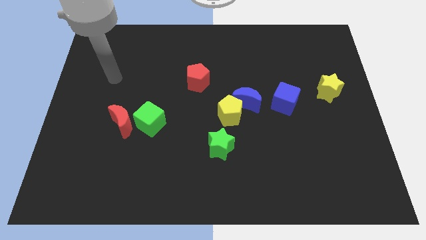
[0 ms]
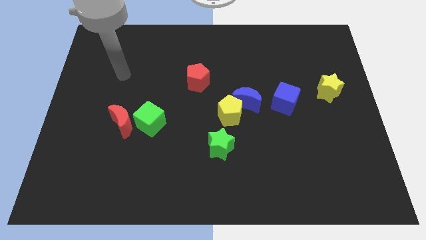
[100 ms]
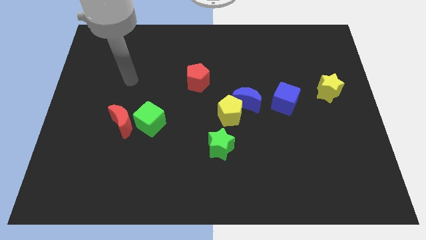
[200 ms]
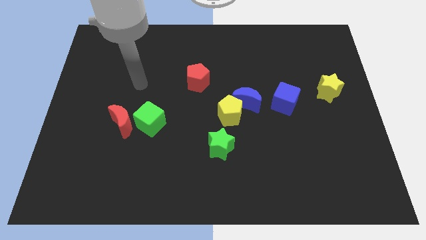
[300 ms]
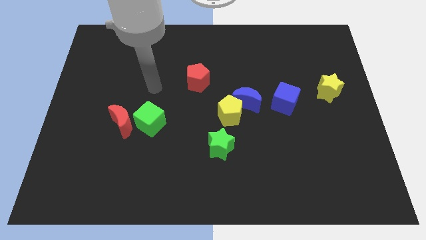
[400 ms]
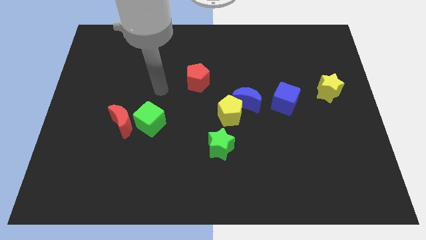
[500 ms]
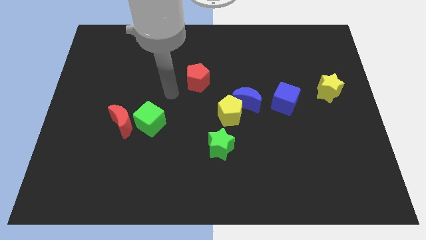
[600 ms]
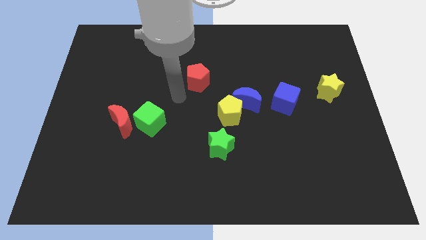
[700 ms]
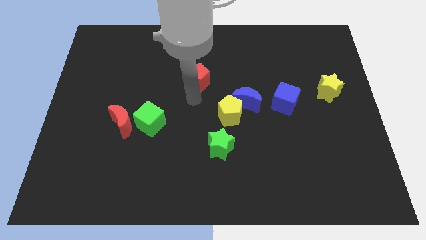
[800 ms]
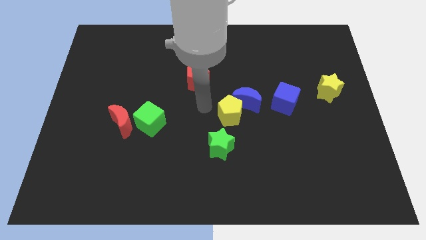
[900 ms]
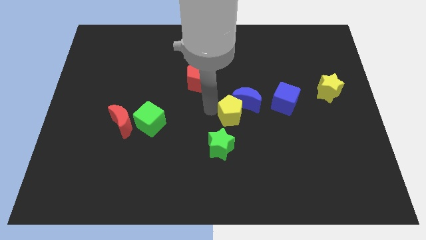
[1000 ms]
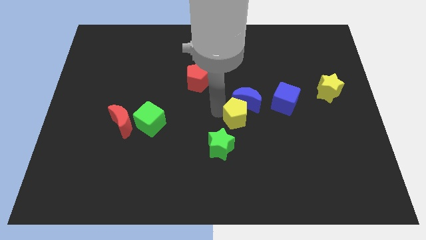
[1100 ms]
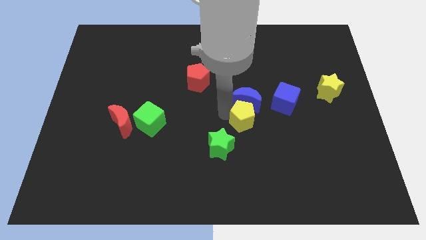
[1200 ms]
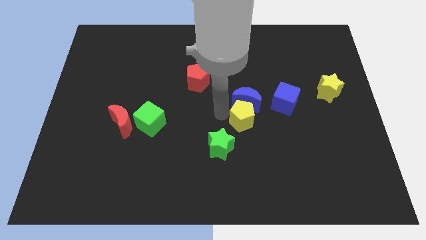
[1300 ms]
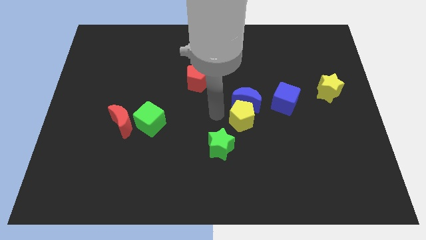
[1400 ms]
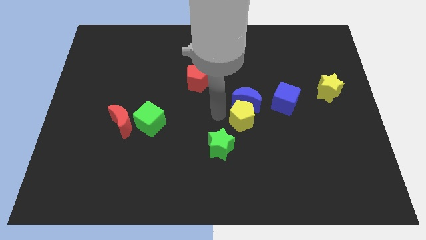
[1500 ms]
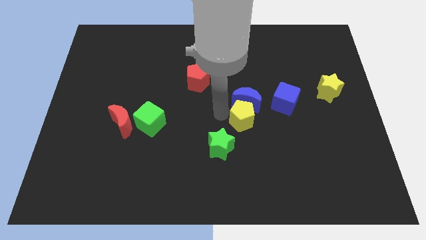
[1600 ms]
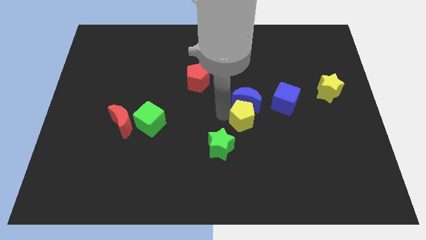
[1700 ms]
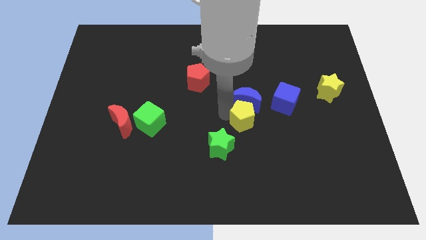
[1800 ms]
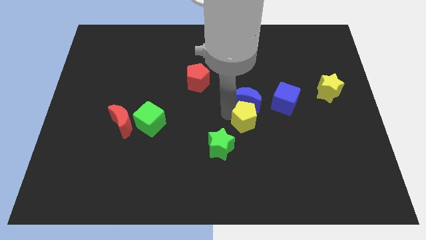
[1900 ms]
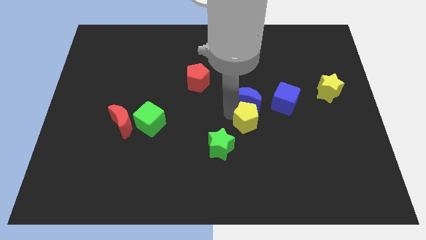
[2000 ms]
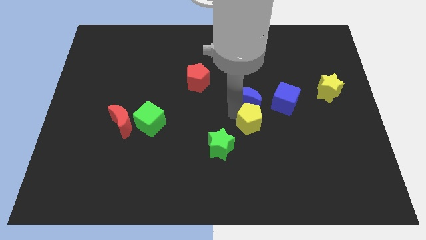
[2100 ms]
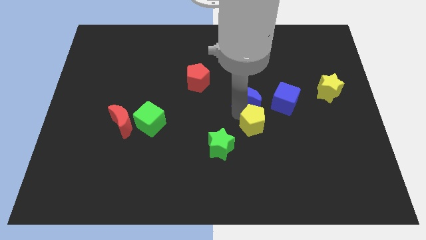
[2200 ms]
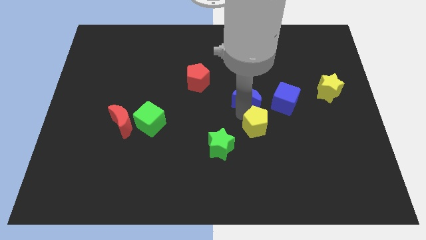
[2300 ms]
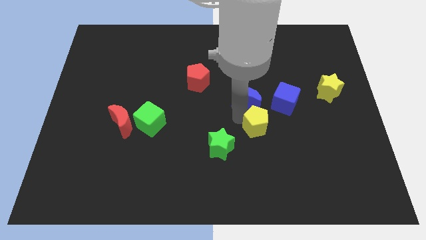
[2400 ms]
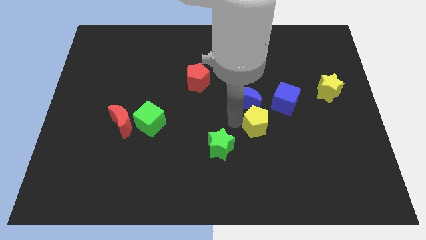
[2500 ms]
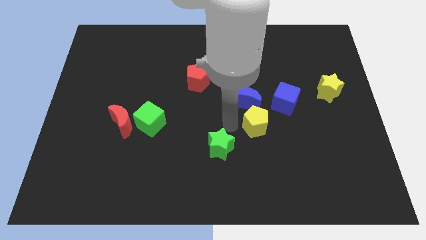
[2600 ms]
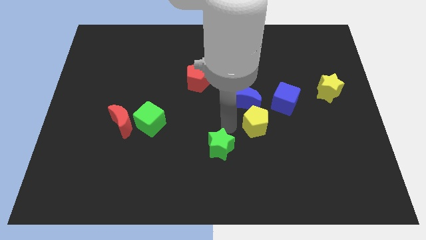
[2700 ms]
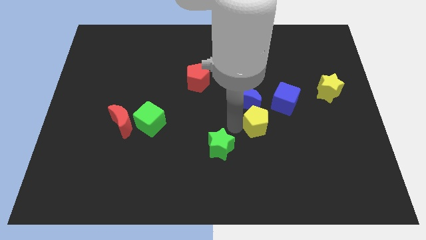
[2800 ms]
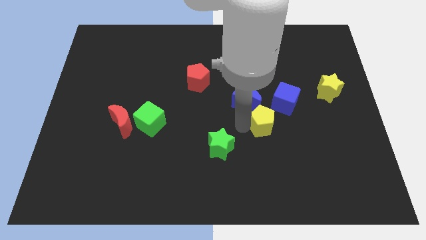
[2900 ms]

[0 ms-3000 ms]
push the yellow pentagon a bit right

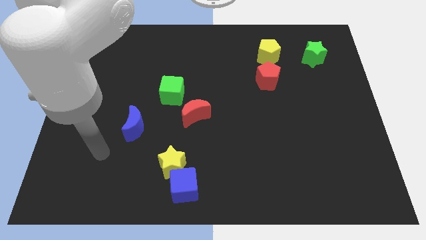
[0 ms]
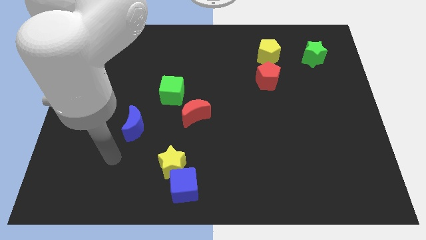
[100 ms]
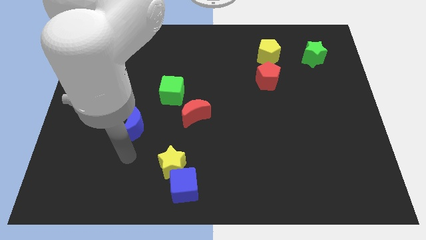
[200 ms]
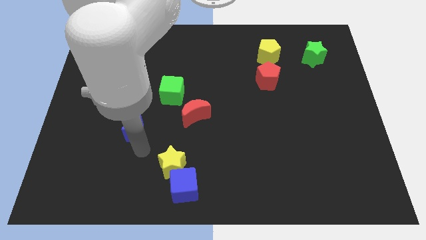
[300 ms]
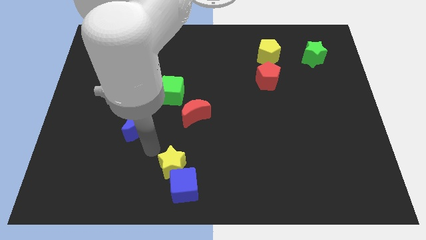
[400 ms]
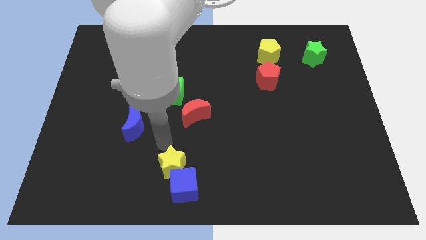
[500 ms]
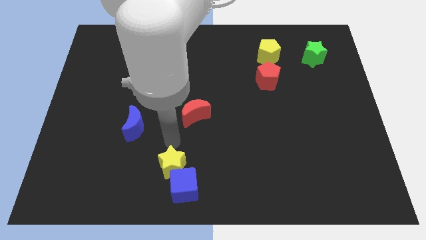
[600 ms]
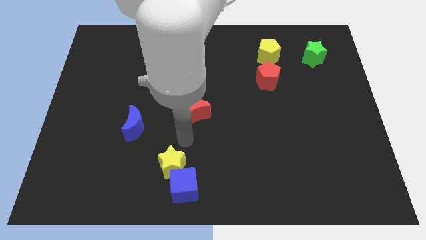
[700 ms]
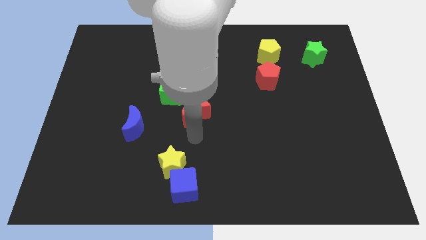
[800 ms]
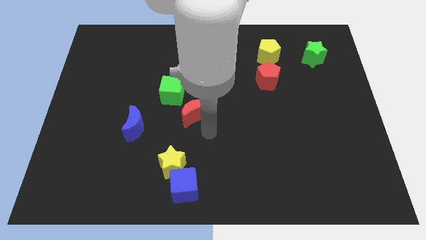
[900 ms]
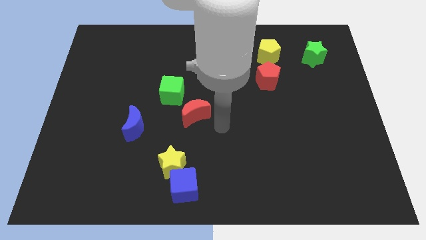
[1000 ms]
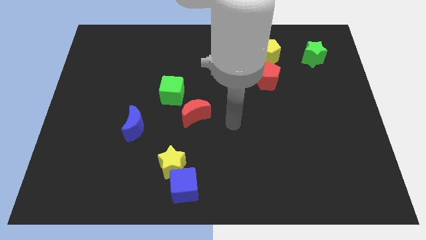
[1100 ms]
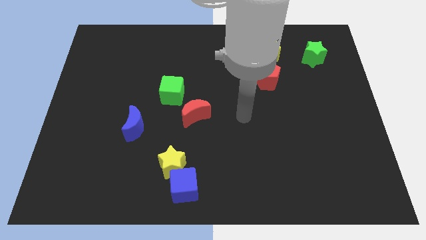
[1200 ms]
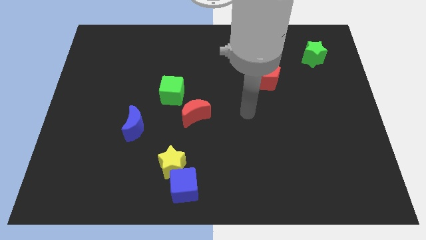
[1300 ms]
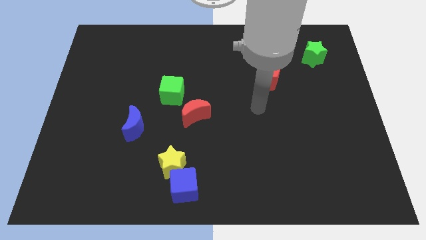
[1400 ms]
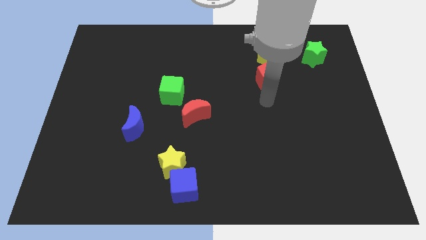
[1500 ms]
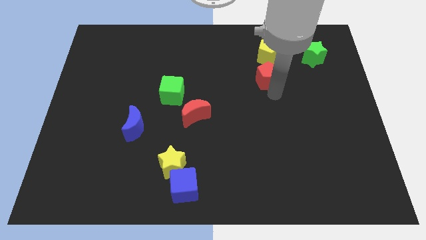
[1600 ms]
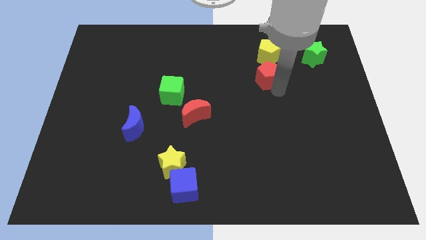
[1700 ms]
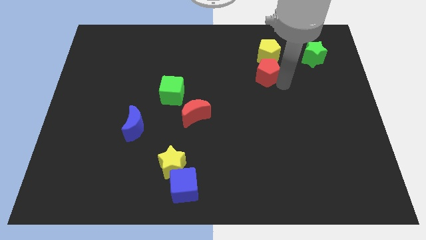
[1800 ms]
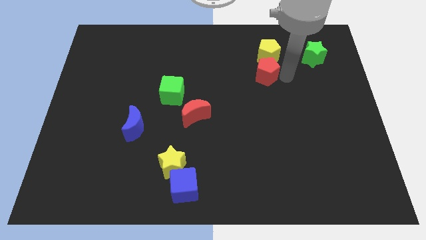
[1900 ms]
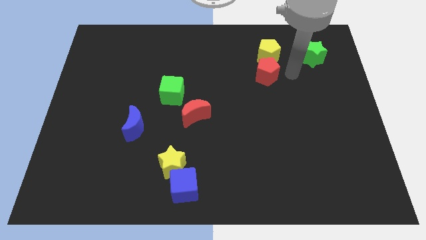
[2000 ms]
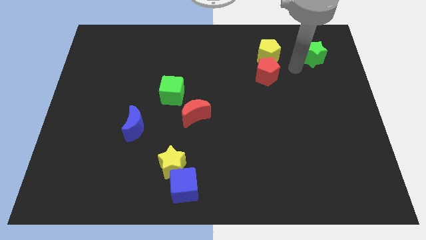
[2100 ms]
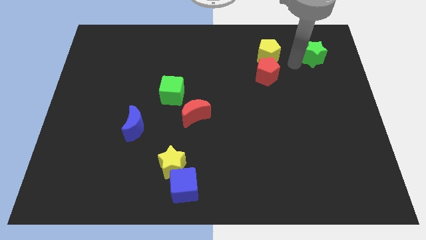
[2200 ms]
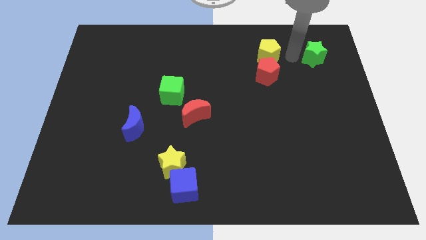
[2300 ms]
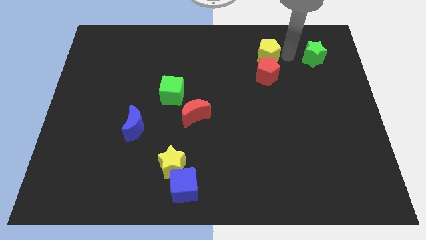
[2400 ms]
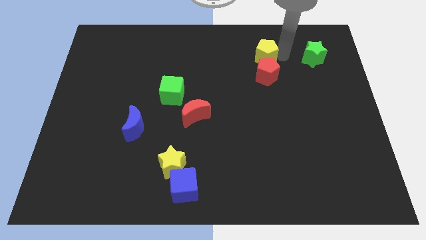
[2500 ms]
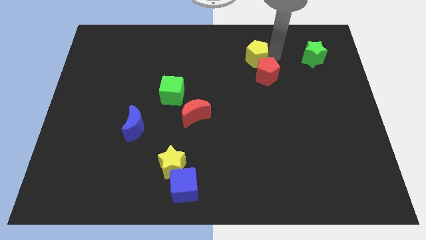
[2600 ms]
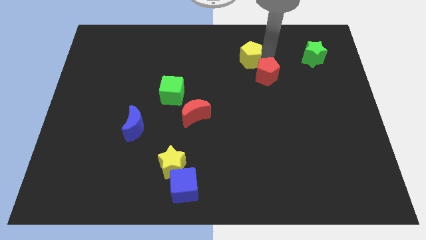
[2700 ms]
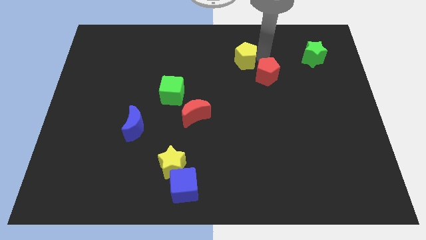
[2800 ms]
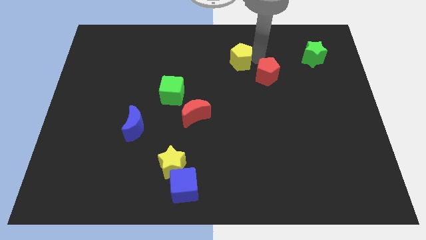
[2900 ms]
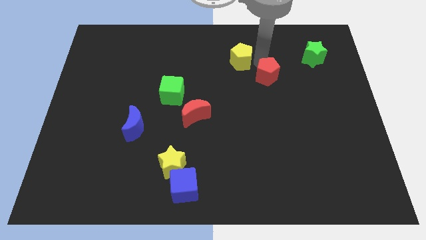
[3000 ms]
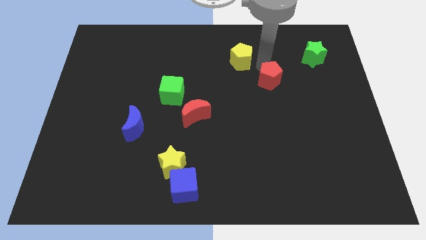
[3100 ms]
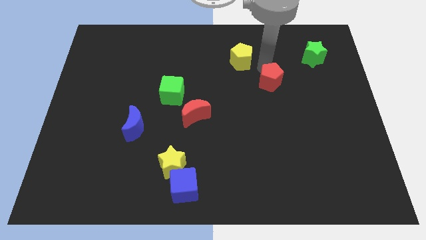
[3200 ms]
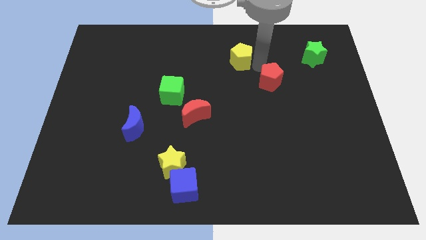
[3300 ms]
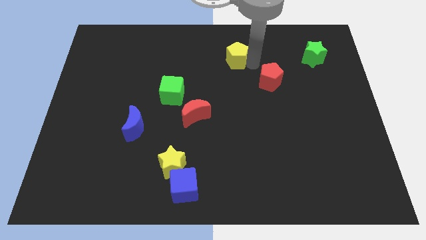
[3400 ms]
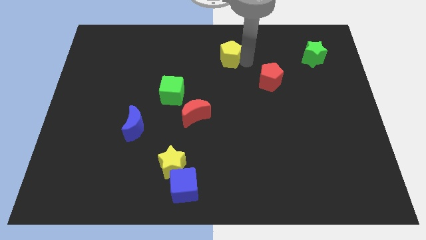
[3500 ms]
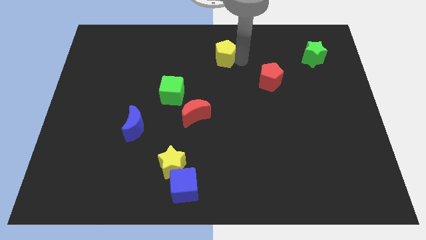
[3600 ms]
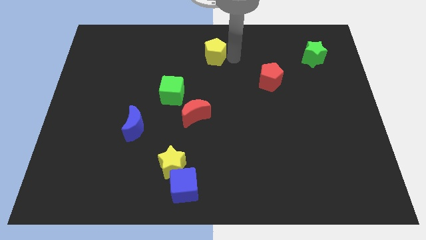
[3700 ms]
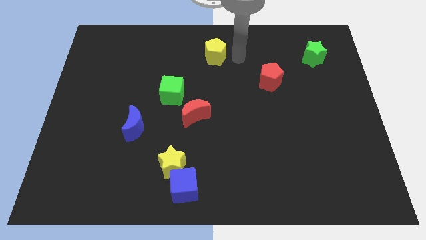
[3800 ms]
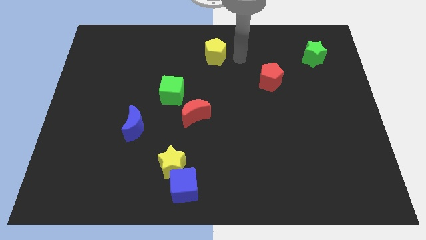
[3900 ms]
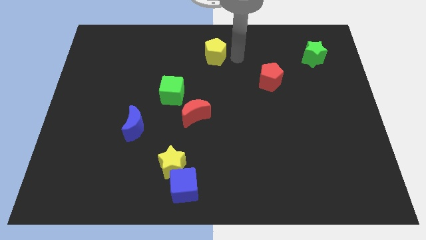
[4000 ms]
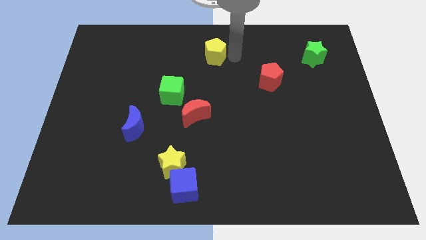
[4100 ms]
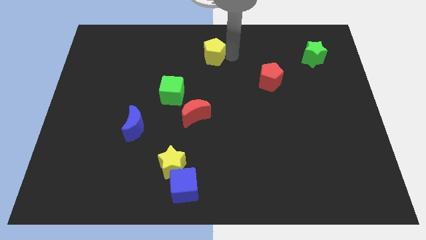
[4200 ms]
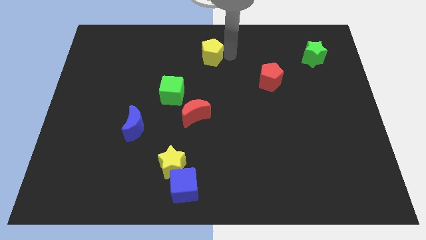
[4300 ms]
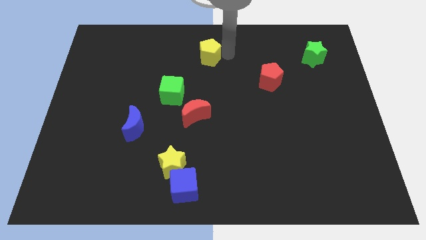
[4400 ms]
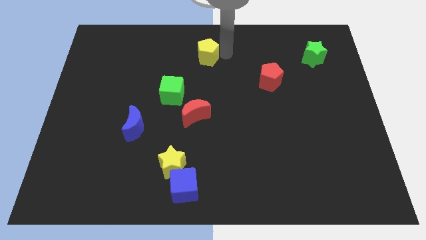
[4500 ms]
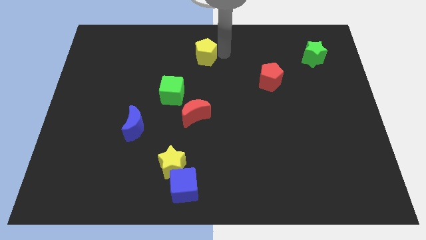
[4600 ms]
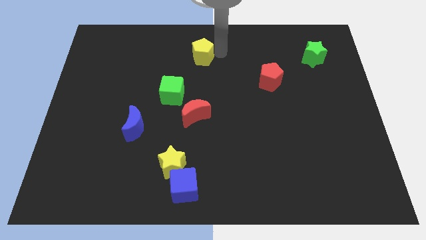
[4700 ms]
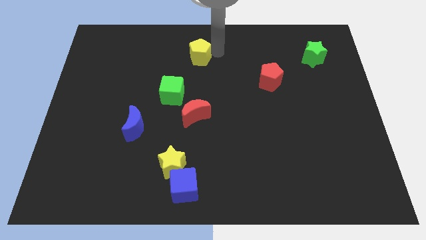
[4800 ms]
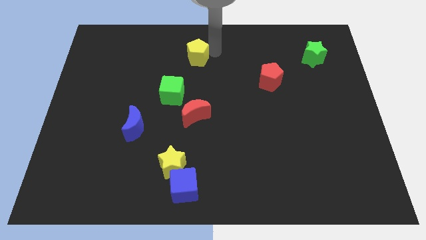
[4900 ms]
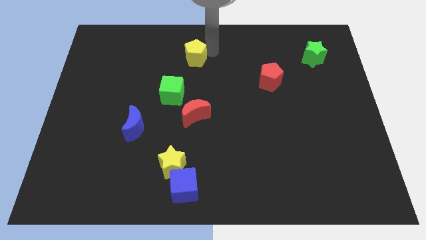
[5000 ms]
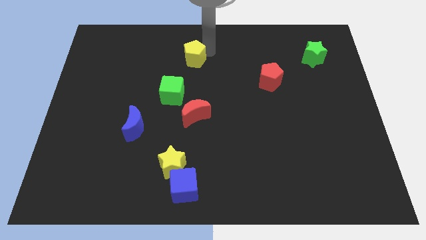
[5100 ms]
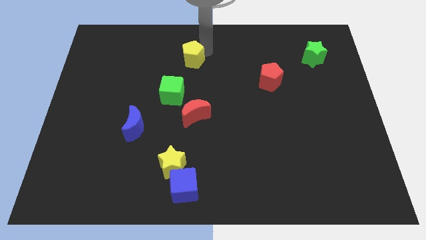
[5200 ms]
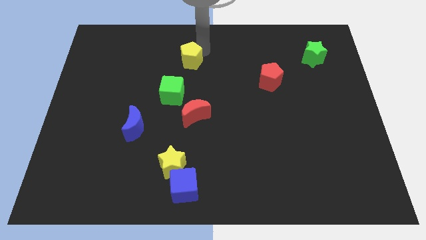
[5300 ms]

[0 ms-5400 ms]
slide the yellow pentagon to the left
